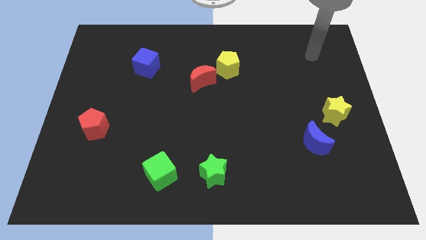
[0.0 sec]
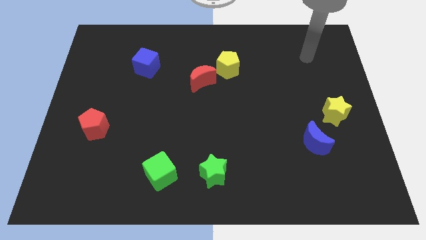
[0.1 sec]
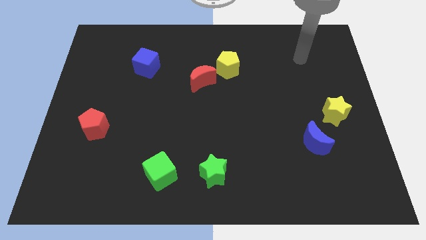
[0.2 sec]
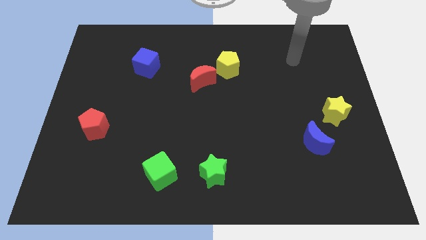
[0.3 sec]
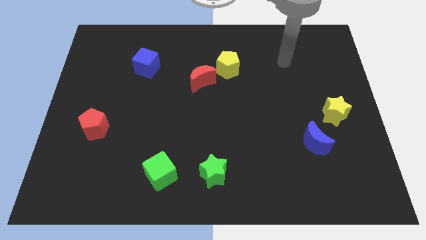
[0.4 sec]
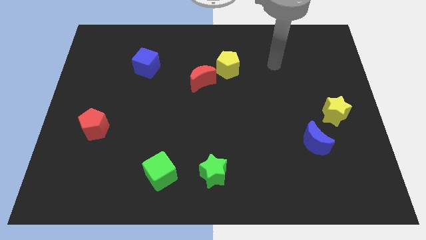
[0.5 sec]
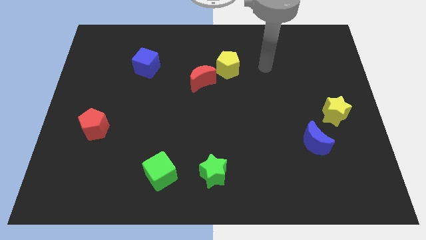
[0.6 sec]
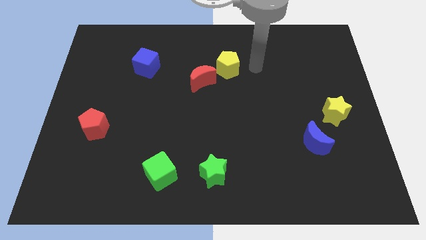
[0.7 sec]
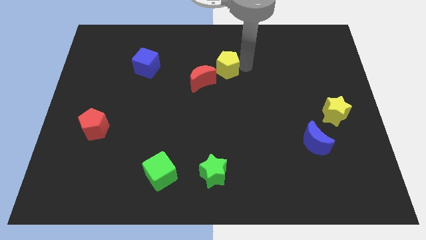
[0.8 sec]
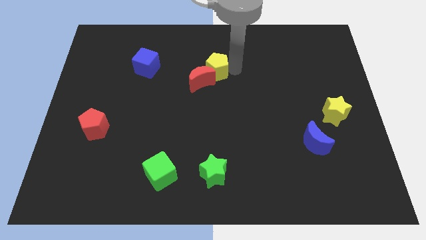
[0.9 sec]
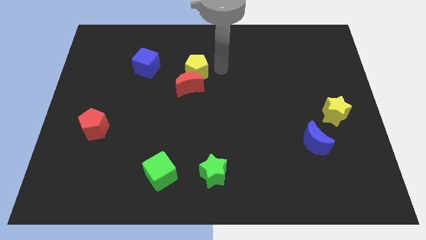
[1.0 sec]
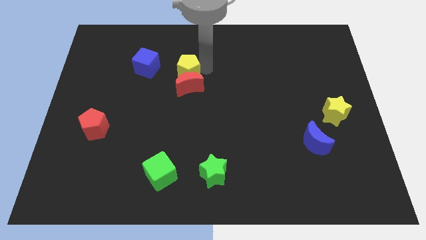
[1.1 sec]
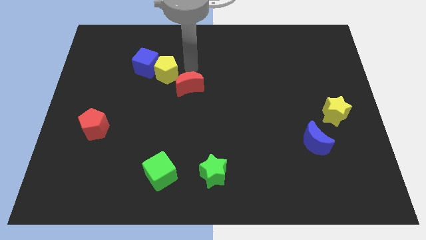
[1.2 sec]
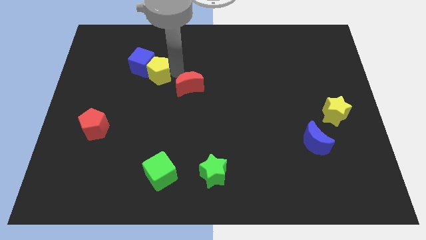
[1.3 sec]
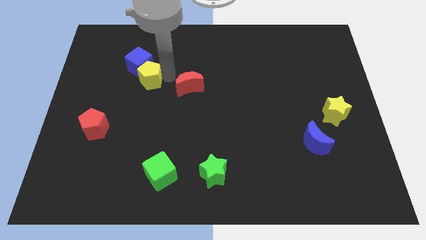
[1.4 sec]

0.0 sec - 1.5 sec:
pull the red moon apart from the yellow pentagon

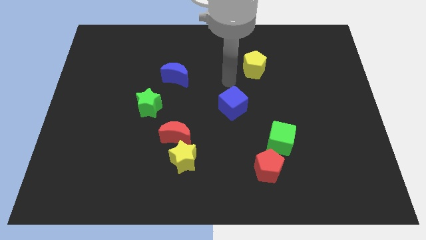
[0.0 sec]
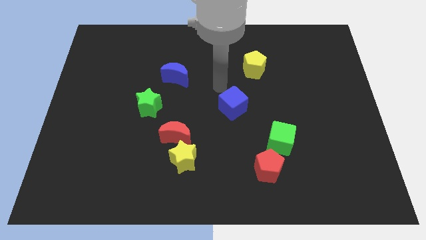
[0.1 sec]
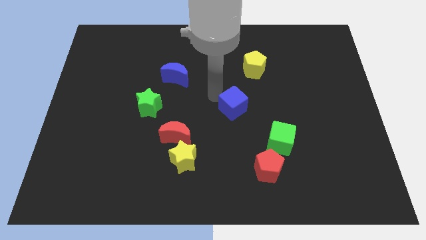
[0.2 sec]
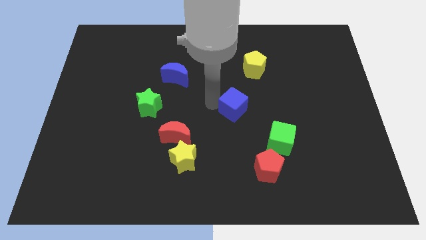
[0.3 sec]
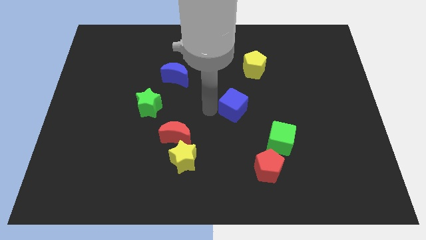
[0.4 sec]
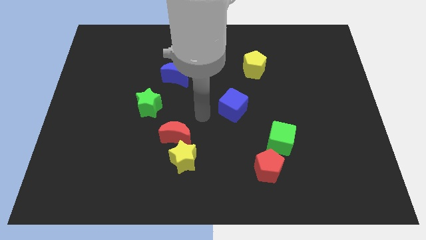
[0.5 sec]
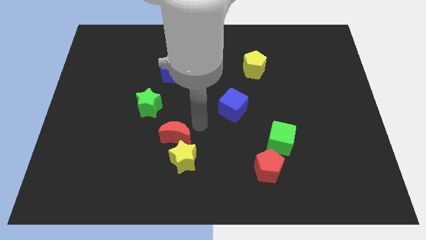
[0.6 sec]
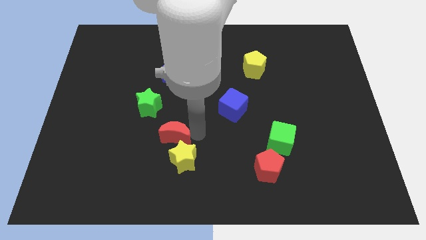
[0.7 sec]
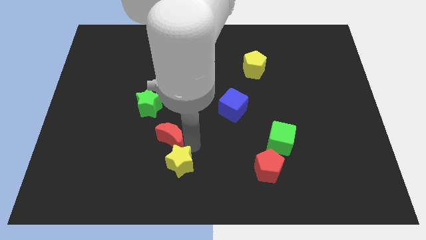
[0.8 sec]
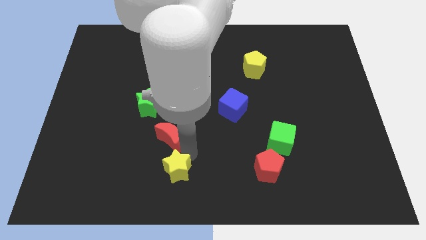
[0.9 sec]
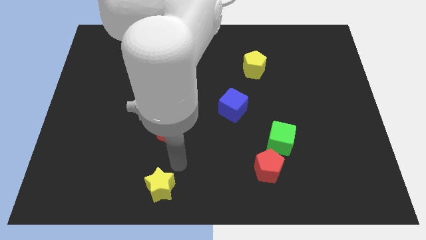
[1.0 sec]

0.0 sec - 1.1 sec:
pull the red moon apart from the yellow star

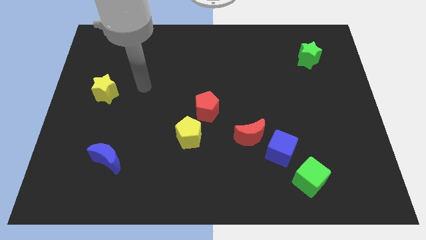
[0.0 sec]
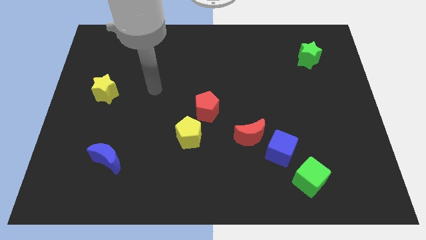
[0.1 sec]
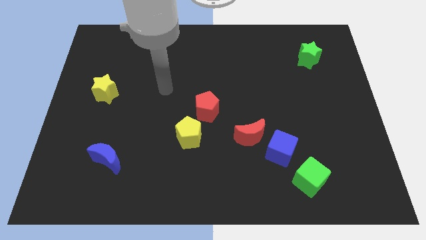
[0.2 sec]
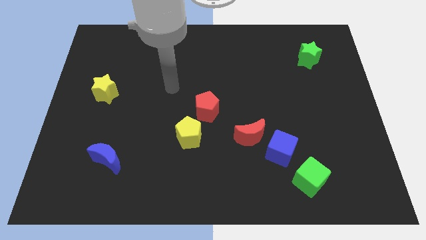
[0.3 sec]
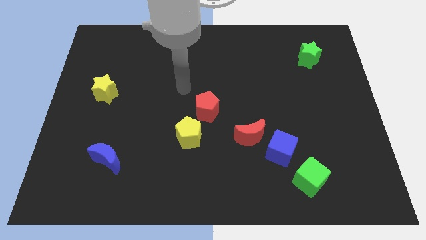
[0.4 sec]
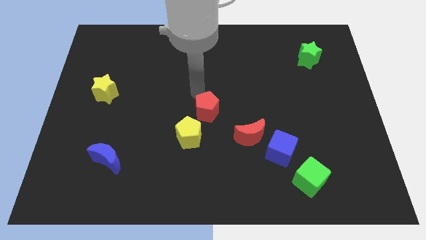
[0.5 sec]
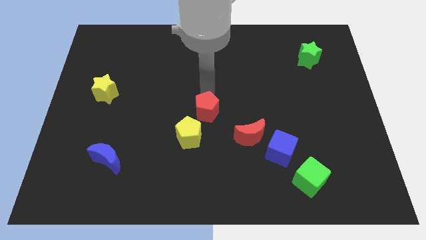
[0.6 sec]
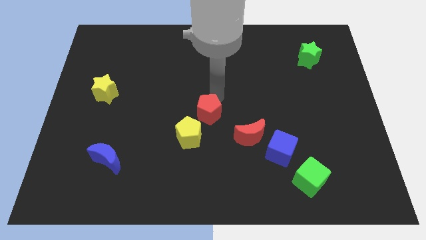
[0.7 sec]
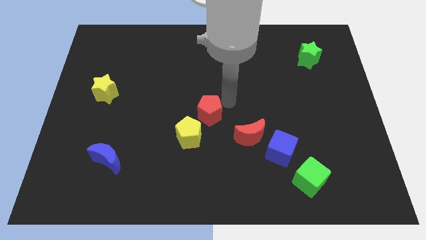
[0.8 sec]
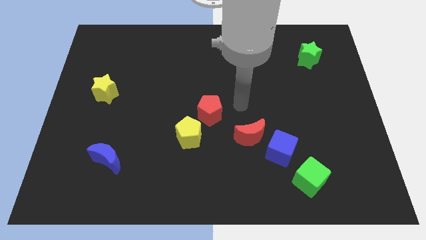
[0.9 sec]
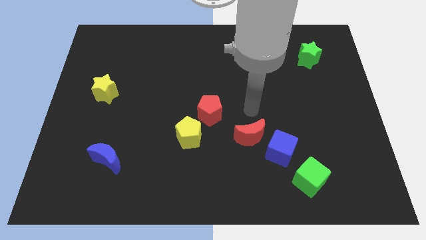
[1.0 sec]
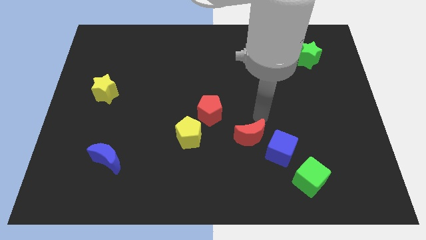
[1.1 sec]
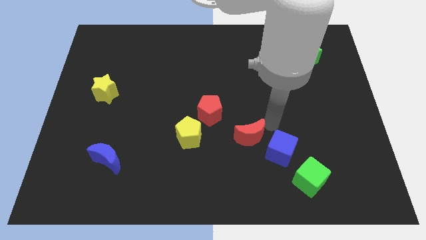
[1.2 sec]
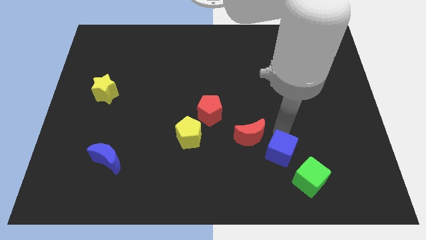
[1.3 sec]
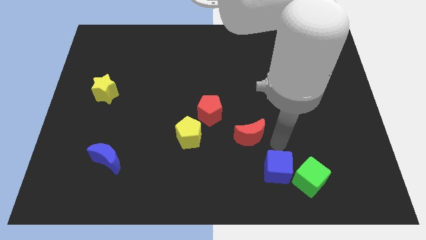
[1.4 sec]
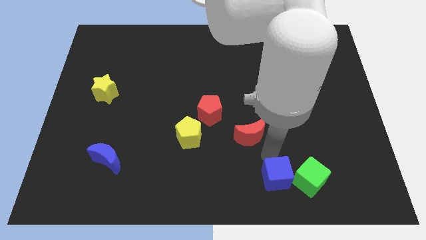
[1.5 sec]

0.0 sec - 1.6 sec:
pull the red moon apart from the blue cube

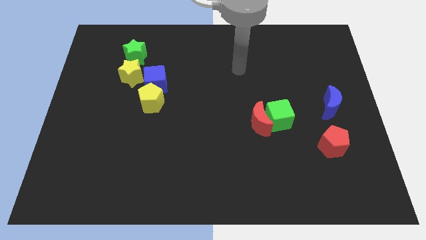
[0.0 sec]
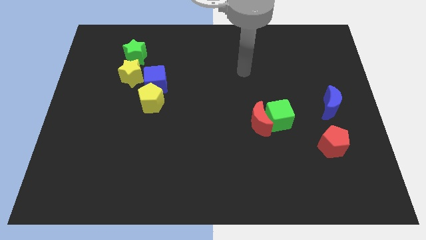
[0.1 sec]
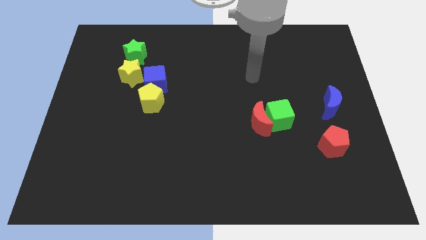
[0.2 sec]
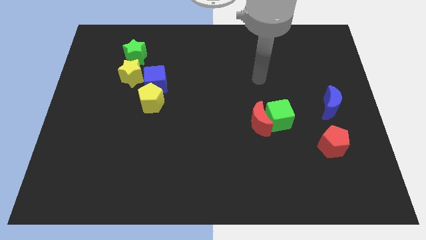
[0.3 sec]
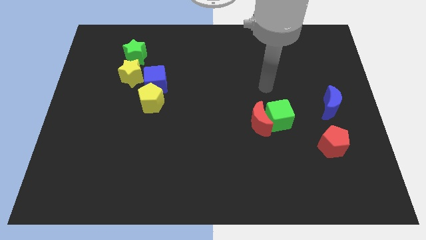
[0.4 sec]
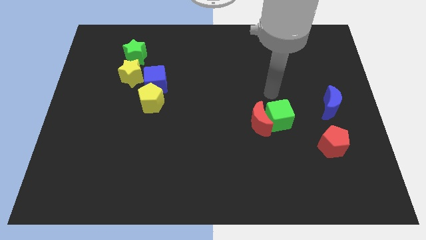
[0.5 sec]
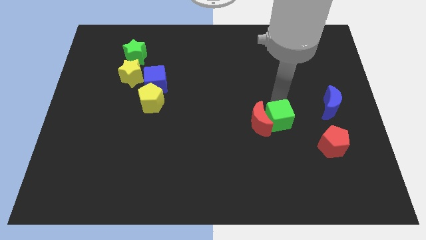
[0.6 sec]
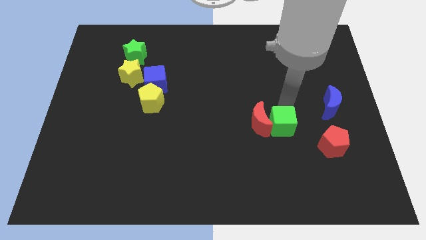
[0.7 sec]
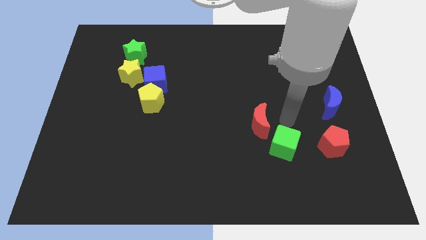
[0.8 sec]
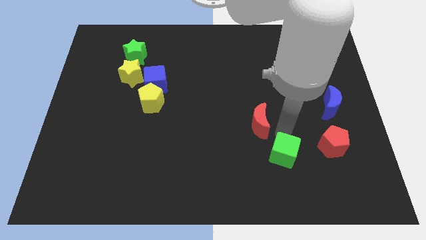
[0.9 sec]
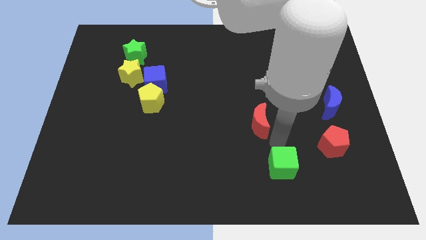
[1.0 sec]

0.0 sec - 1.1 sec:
move the red moon away from the green cube

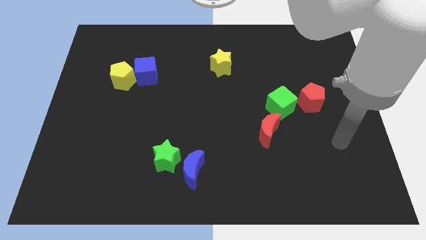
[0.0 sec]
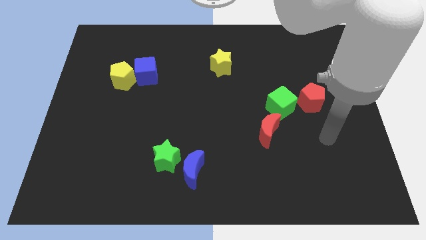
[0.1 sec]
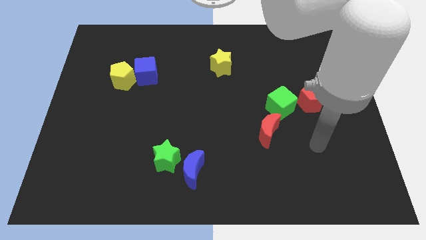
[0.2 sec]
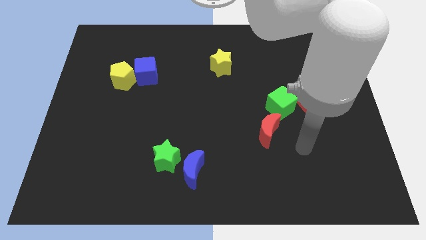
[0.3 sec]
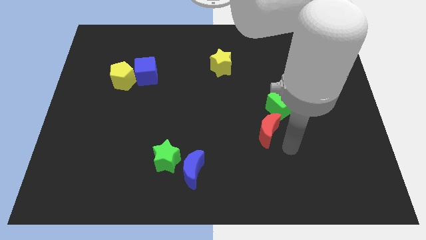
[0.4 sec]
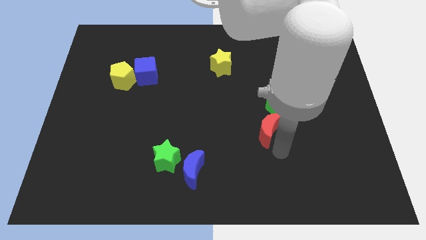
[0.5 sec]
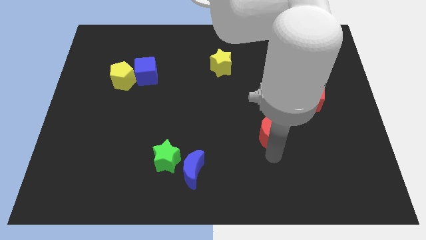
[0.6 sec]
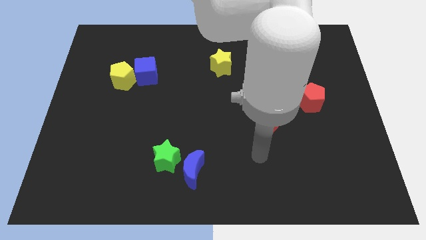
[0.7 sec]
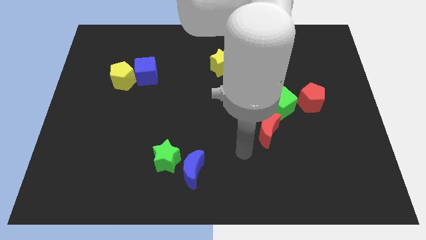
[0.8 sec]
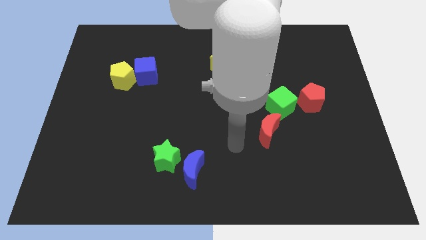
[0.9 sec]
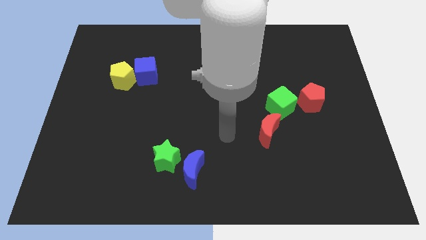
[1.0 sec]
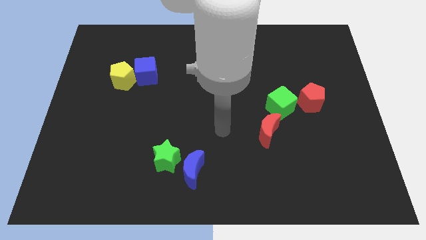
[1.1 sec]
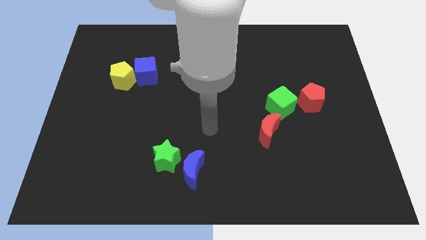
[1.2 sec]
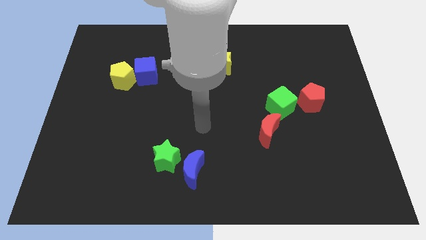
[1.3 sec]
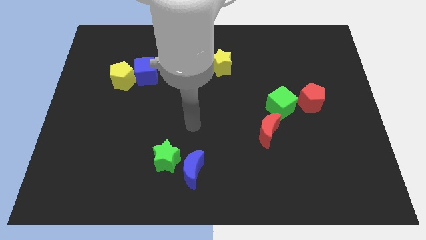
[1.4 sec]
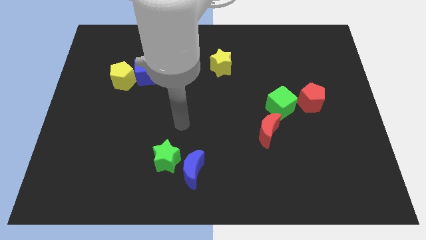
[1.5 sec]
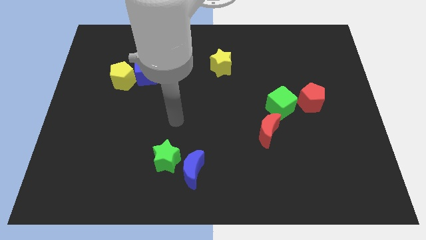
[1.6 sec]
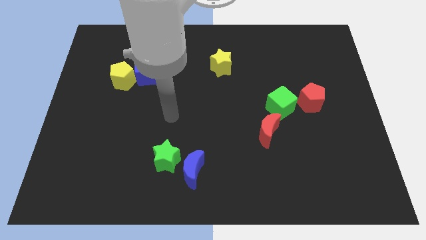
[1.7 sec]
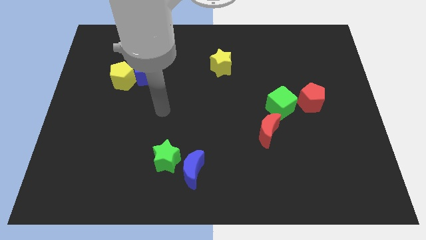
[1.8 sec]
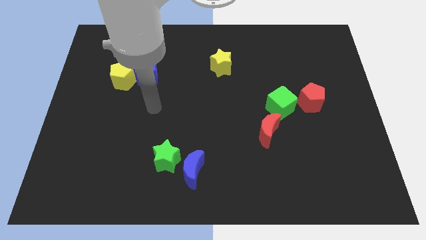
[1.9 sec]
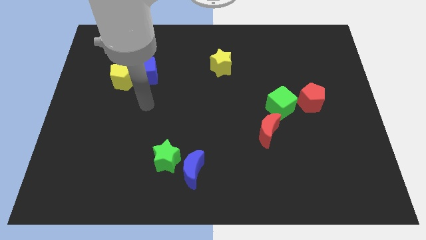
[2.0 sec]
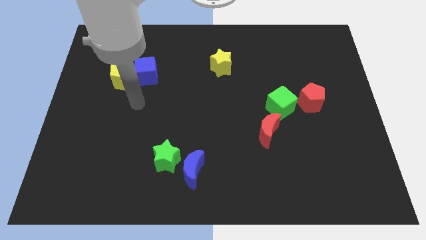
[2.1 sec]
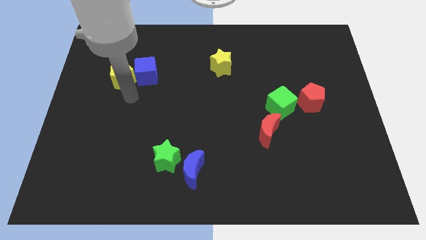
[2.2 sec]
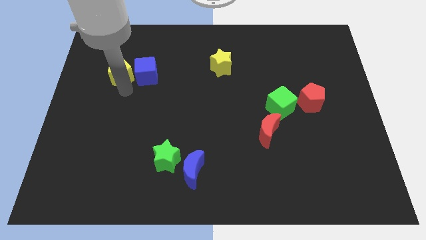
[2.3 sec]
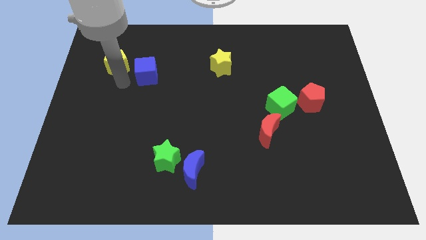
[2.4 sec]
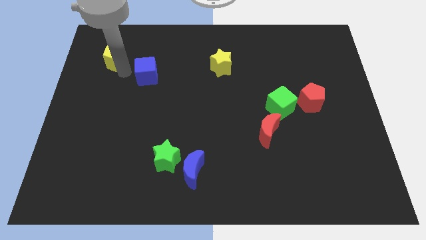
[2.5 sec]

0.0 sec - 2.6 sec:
separate the blue cube from the yellow pentagon

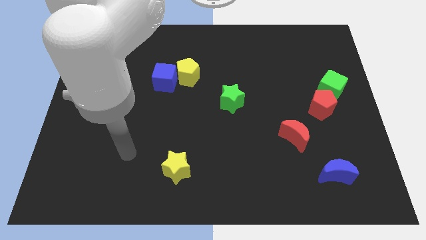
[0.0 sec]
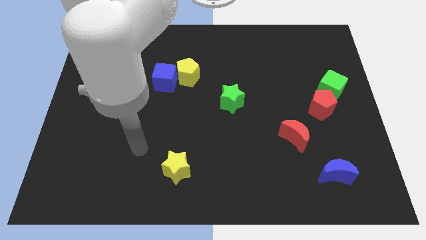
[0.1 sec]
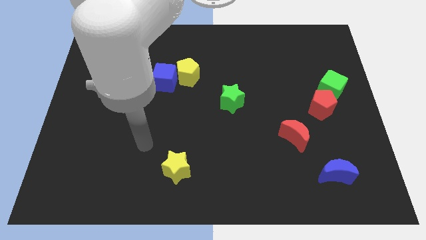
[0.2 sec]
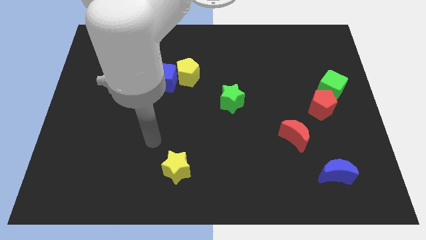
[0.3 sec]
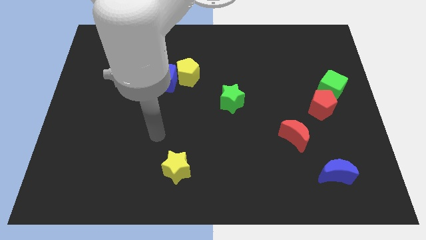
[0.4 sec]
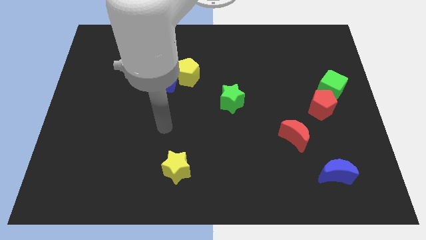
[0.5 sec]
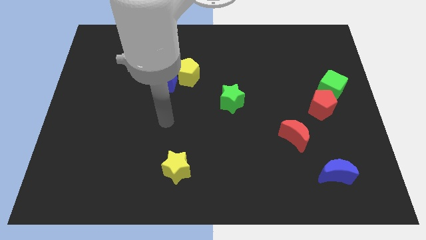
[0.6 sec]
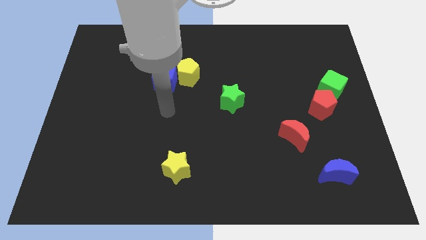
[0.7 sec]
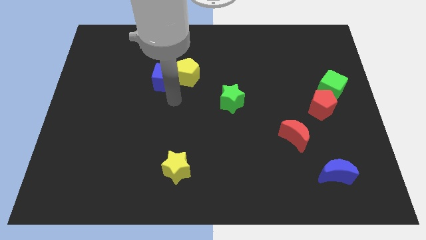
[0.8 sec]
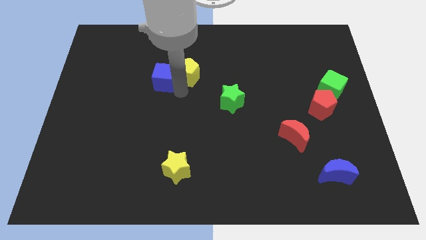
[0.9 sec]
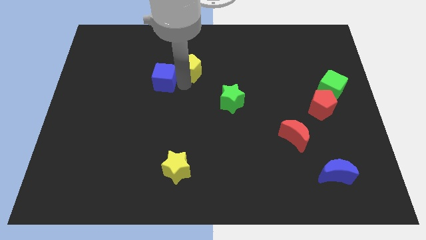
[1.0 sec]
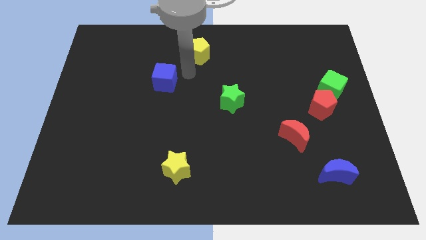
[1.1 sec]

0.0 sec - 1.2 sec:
move the blue cube away from the yellow pentagon

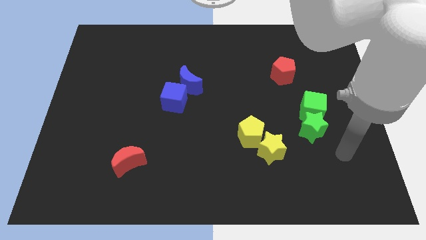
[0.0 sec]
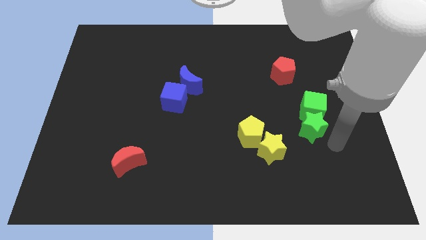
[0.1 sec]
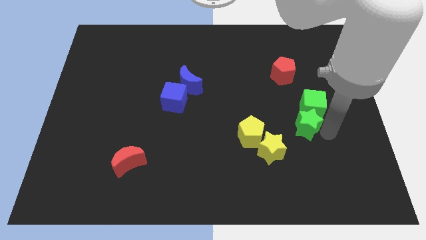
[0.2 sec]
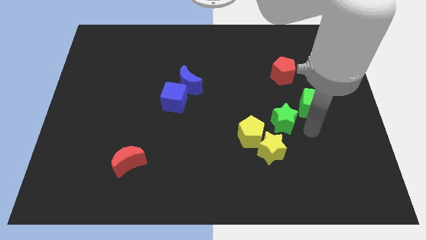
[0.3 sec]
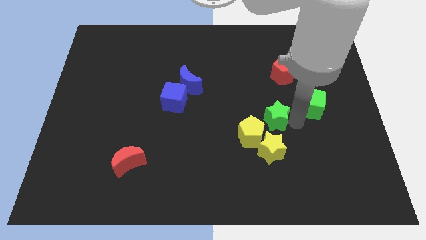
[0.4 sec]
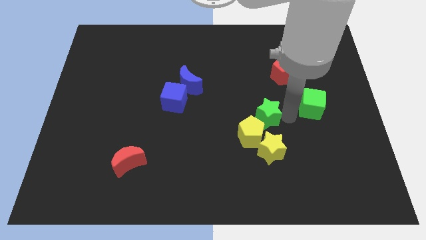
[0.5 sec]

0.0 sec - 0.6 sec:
pull the green cube apart from the green star
